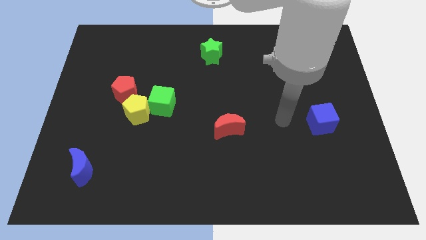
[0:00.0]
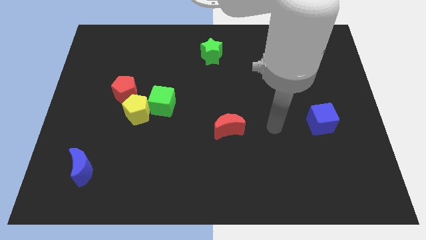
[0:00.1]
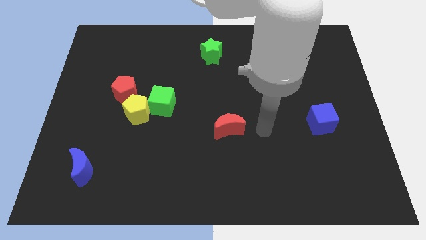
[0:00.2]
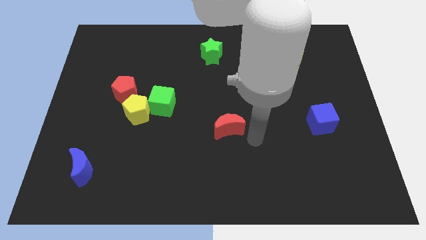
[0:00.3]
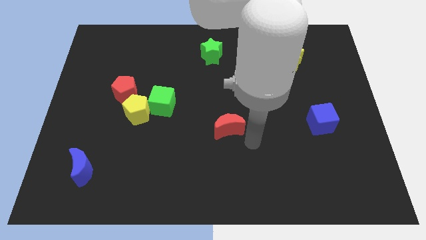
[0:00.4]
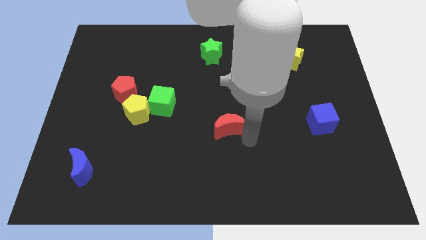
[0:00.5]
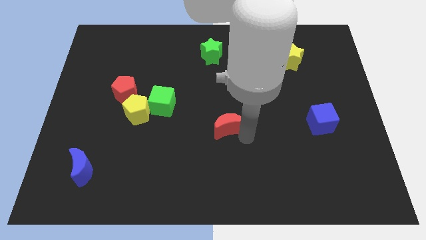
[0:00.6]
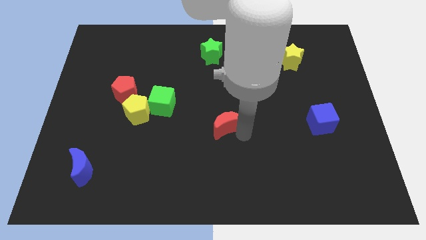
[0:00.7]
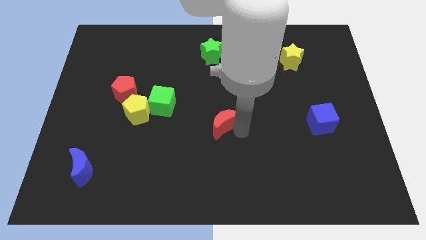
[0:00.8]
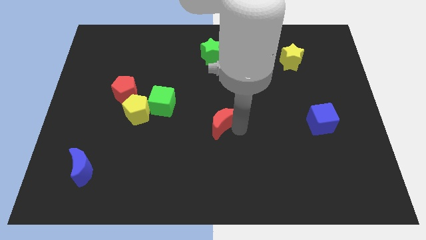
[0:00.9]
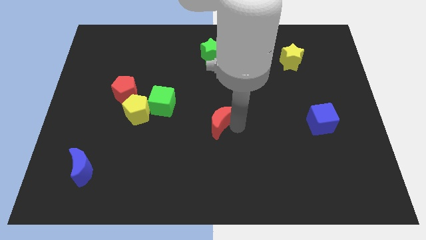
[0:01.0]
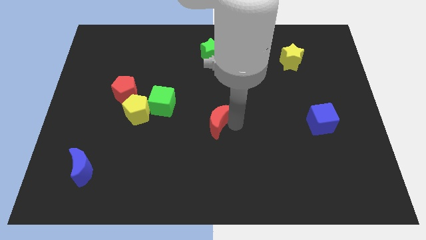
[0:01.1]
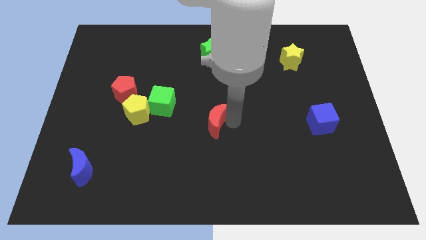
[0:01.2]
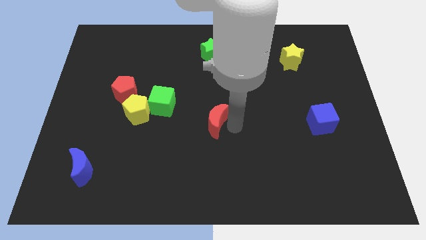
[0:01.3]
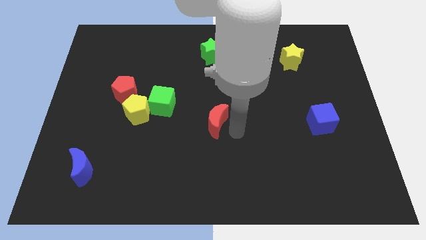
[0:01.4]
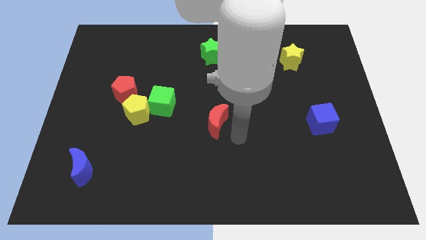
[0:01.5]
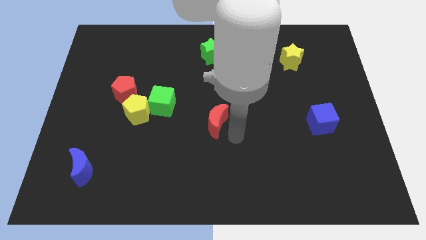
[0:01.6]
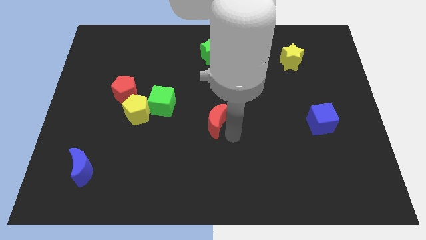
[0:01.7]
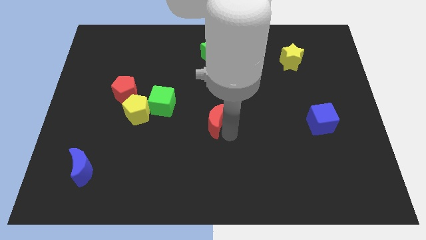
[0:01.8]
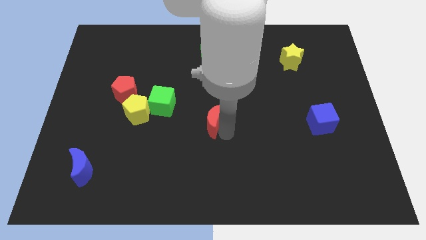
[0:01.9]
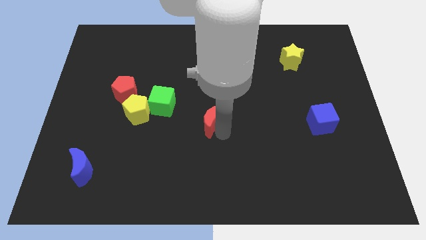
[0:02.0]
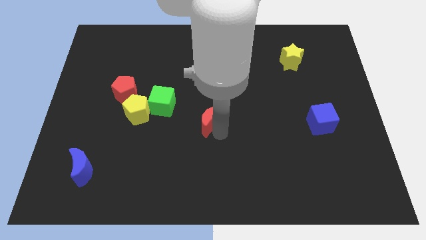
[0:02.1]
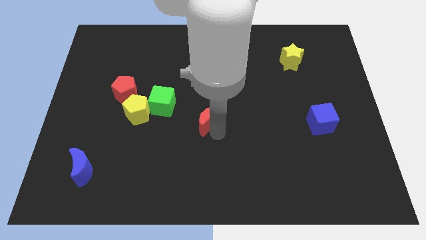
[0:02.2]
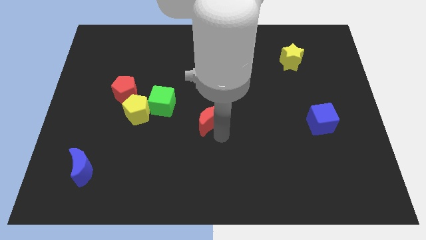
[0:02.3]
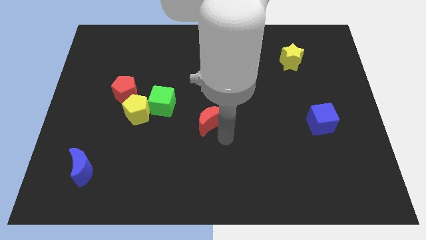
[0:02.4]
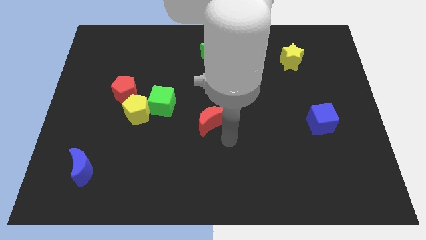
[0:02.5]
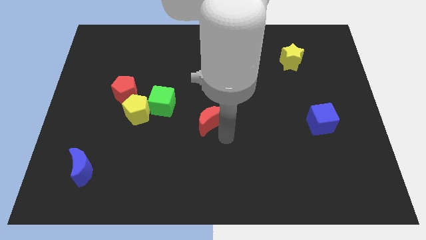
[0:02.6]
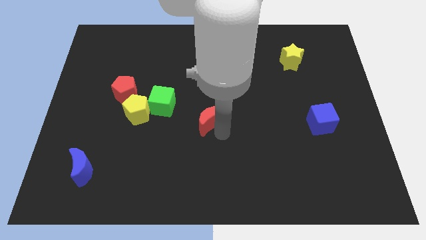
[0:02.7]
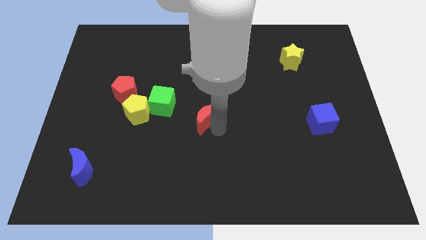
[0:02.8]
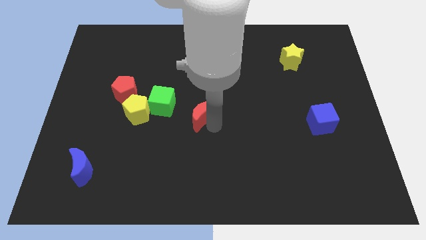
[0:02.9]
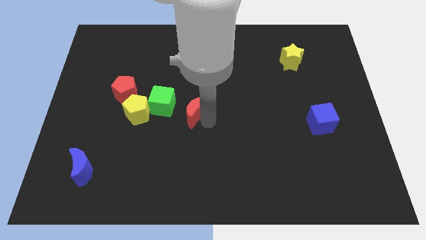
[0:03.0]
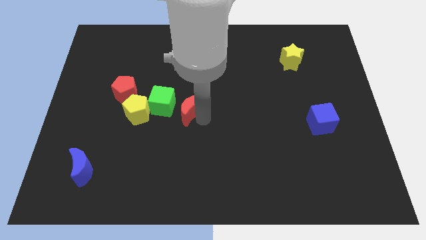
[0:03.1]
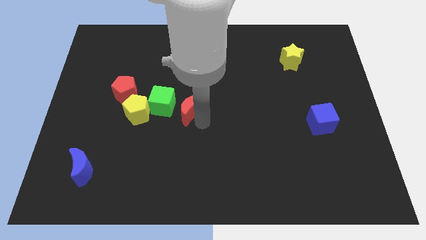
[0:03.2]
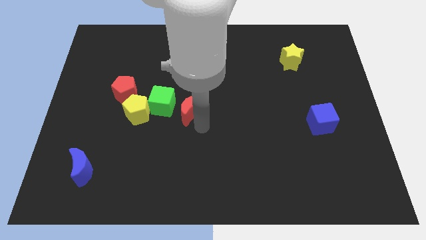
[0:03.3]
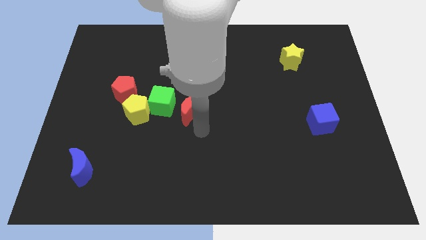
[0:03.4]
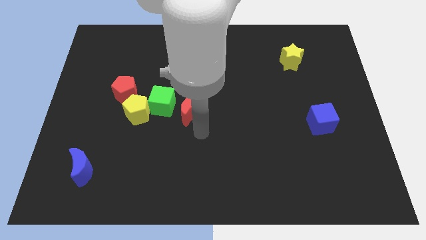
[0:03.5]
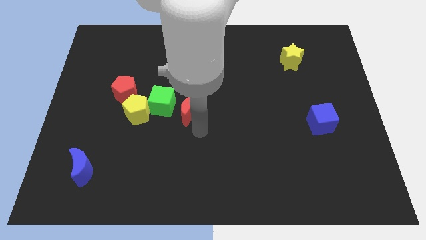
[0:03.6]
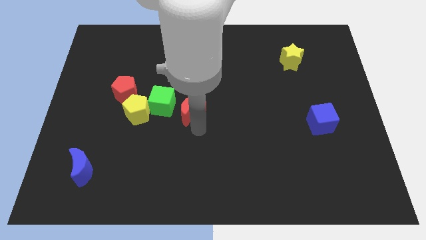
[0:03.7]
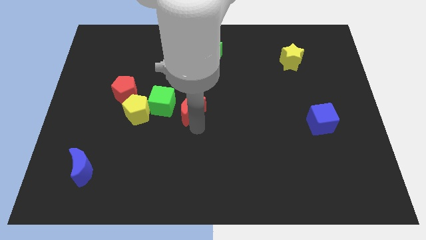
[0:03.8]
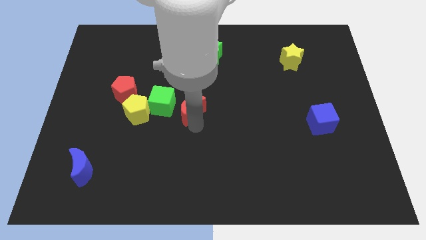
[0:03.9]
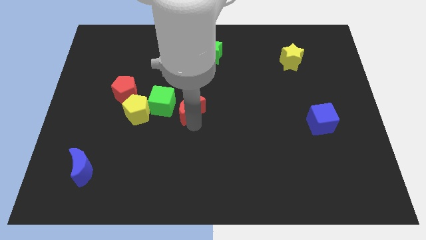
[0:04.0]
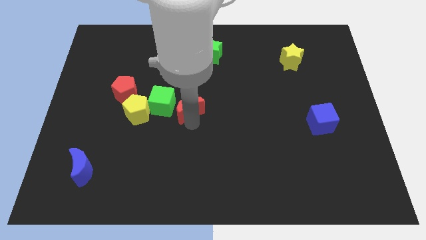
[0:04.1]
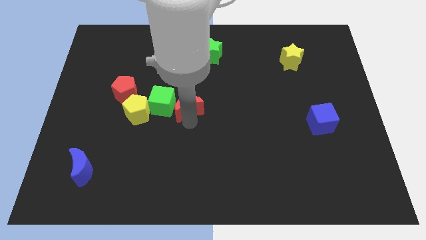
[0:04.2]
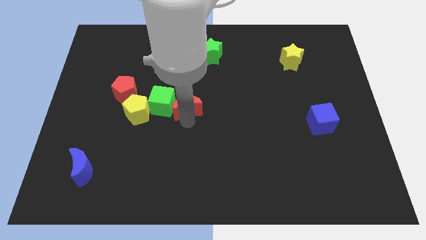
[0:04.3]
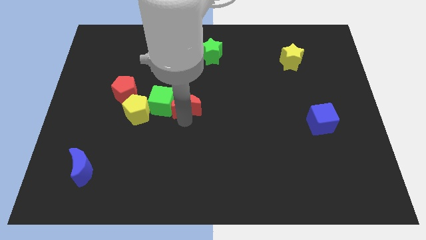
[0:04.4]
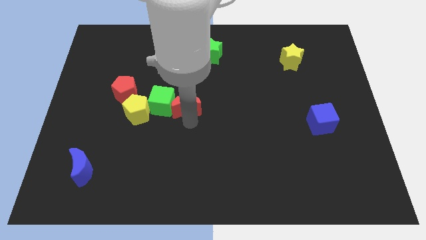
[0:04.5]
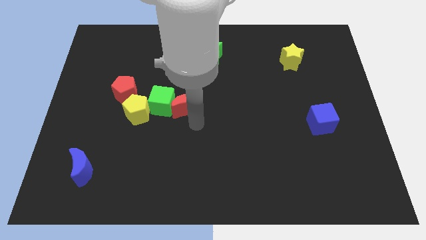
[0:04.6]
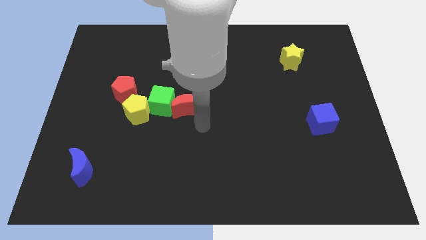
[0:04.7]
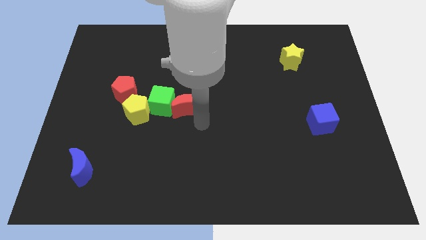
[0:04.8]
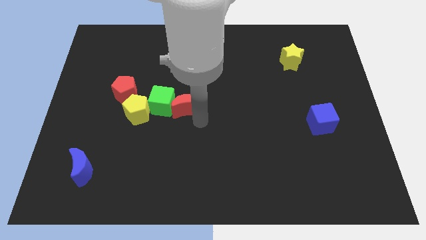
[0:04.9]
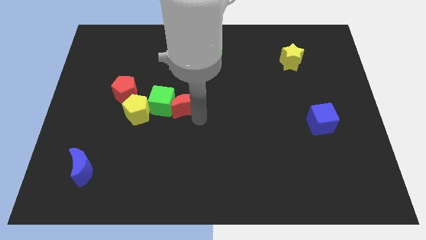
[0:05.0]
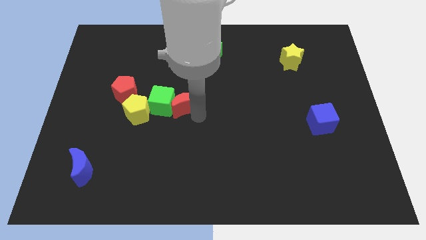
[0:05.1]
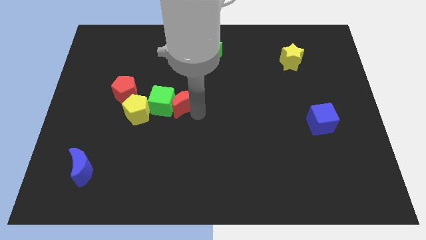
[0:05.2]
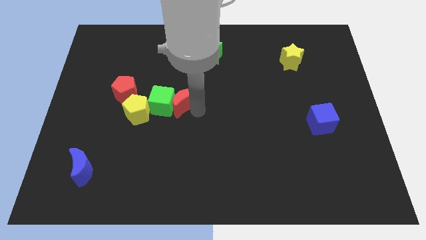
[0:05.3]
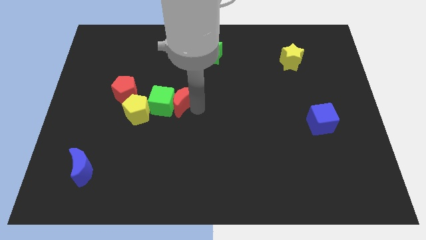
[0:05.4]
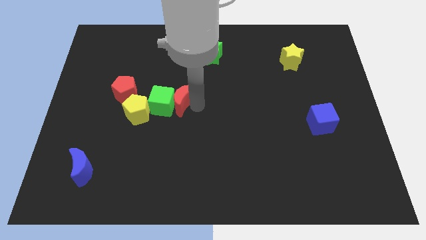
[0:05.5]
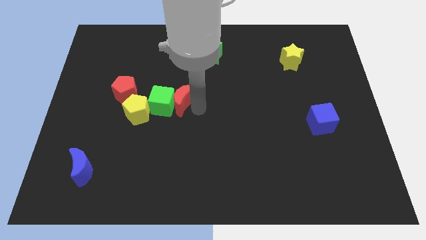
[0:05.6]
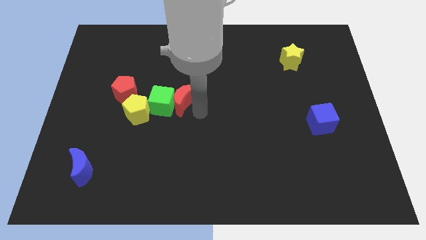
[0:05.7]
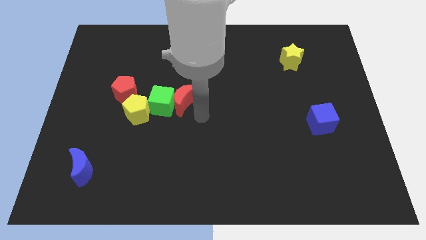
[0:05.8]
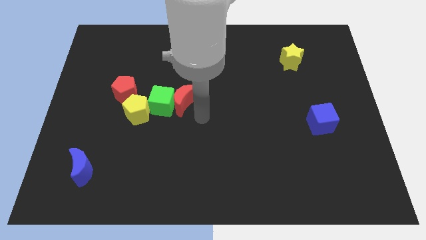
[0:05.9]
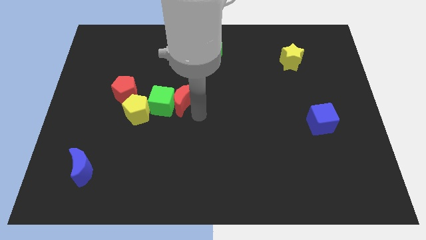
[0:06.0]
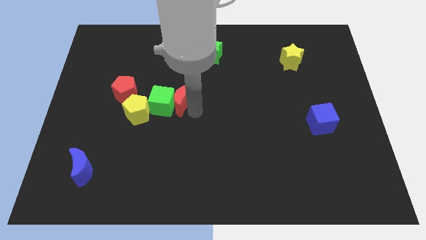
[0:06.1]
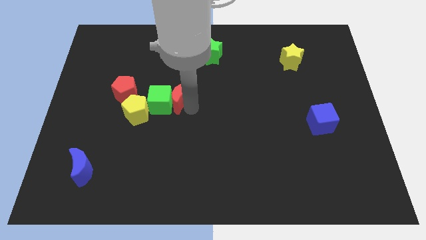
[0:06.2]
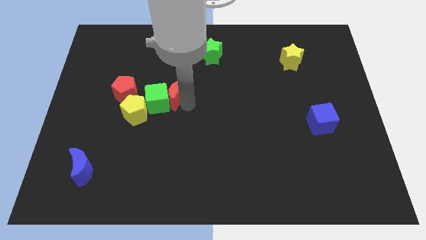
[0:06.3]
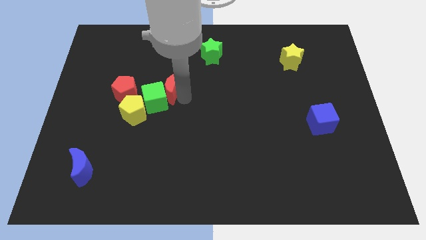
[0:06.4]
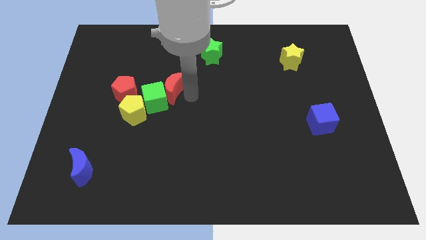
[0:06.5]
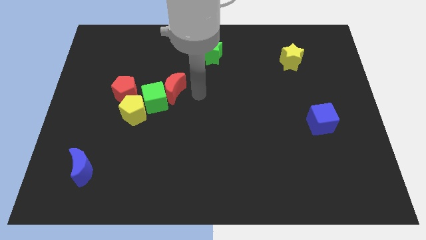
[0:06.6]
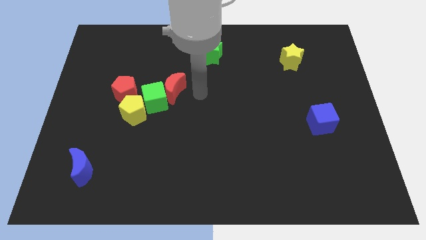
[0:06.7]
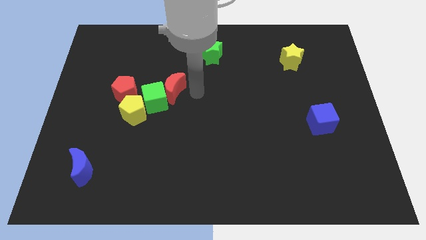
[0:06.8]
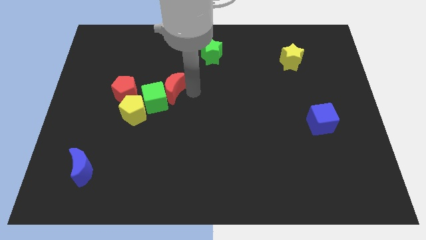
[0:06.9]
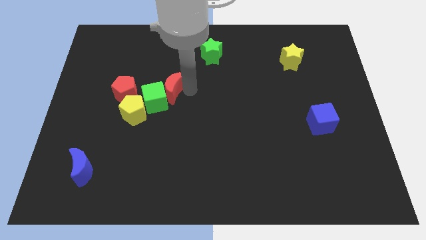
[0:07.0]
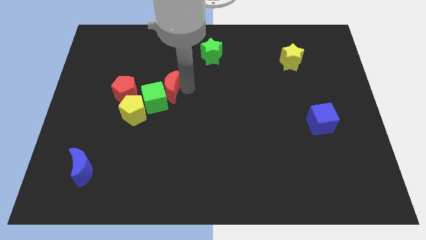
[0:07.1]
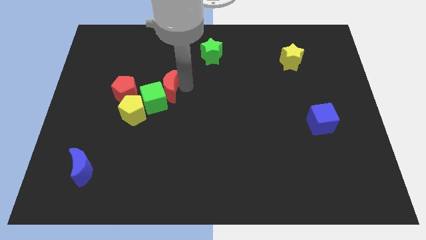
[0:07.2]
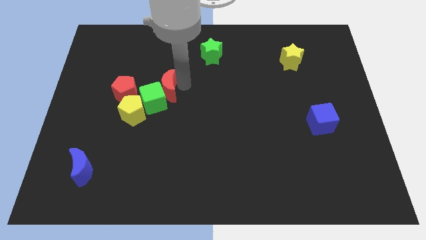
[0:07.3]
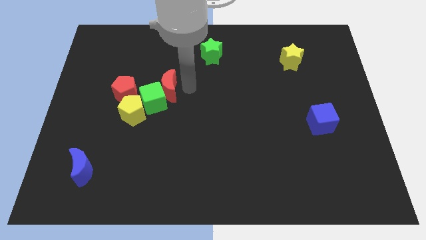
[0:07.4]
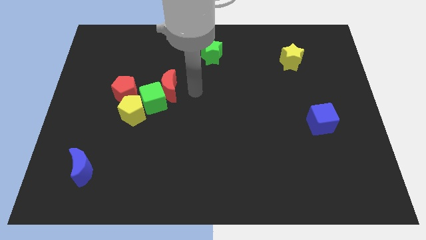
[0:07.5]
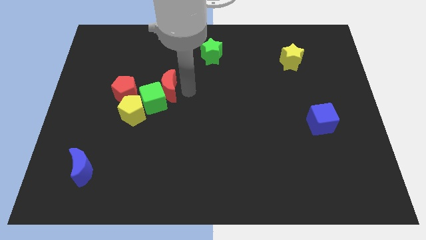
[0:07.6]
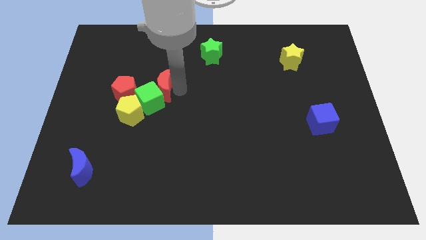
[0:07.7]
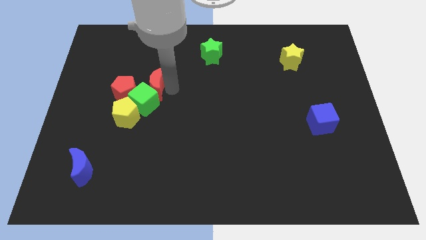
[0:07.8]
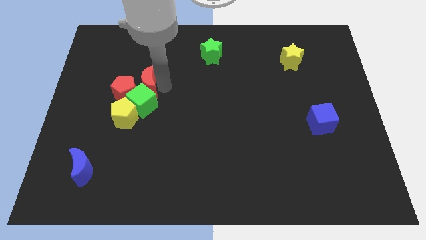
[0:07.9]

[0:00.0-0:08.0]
push the red moon to the top left side of the green cube

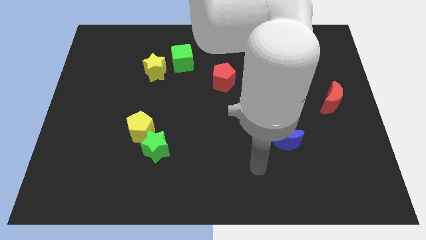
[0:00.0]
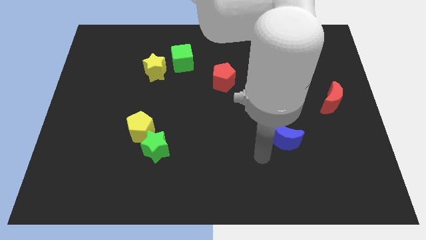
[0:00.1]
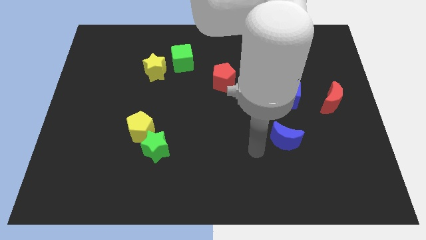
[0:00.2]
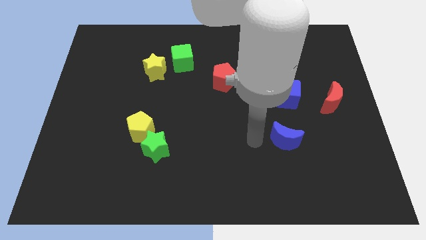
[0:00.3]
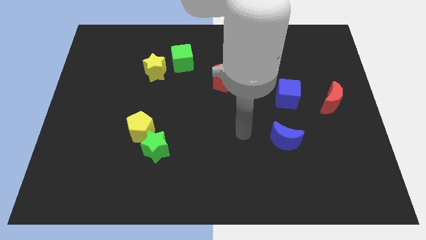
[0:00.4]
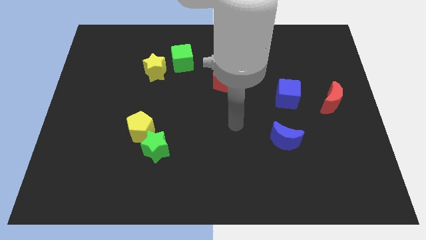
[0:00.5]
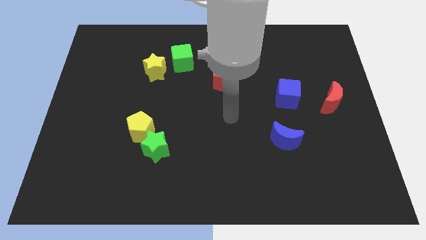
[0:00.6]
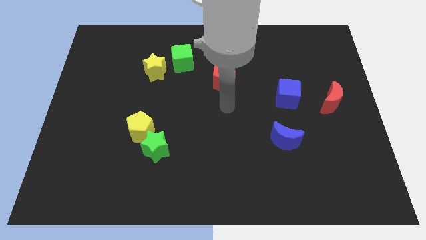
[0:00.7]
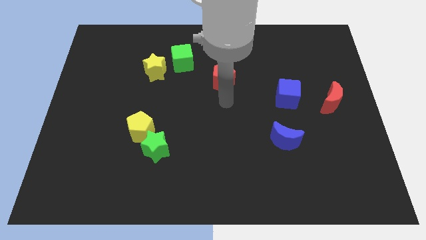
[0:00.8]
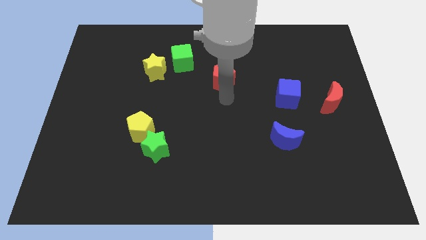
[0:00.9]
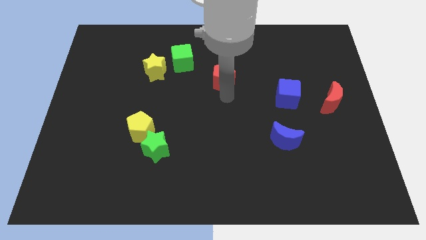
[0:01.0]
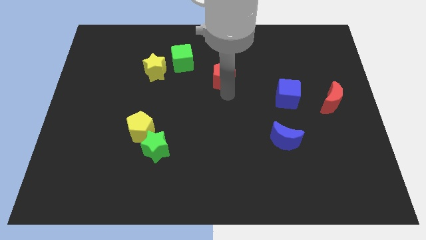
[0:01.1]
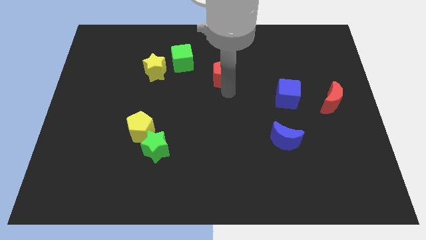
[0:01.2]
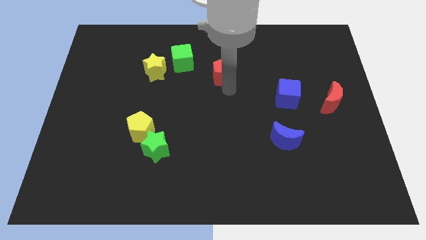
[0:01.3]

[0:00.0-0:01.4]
slide the red pentagon just right of the green cube
